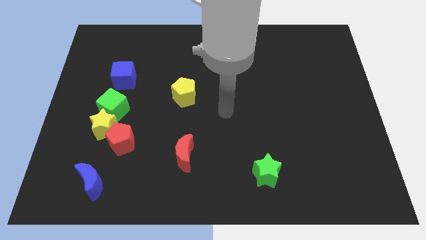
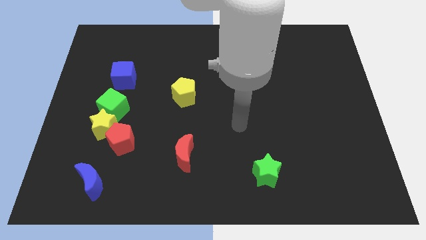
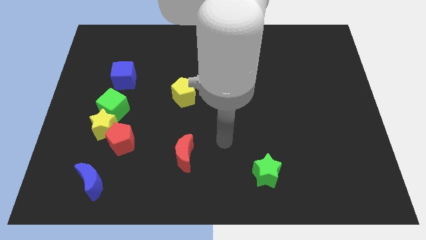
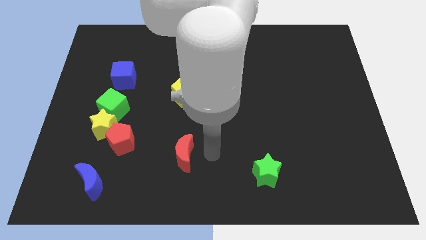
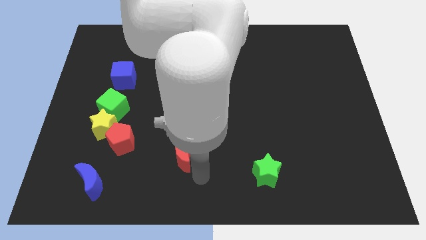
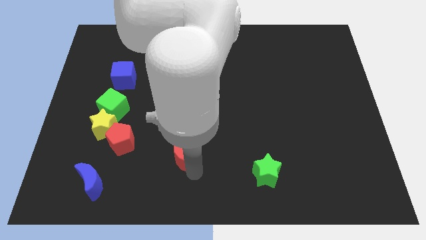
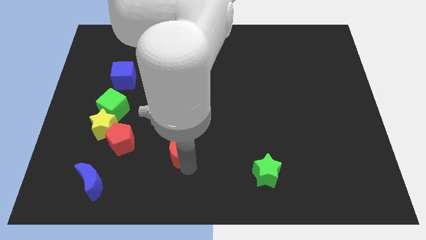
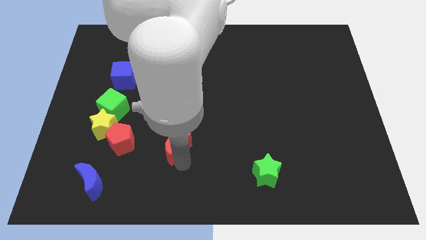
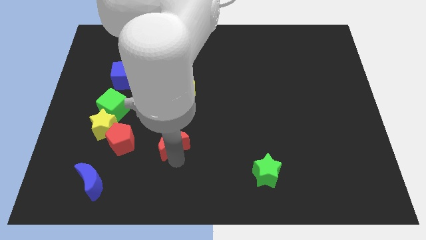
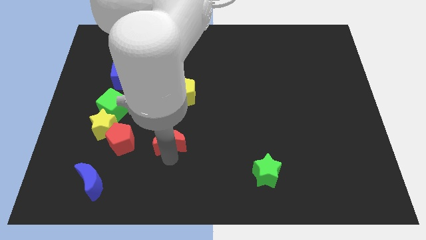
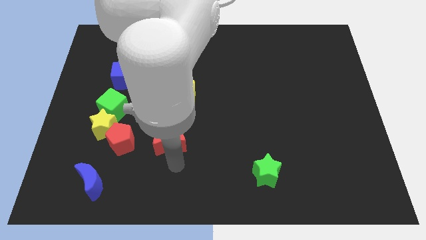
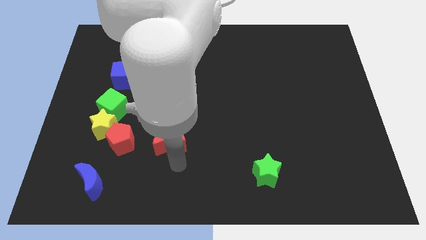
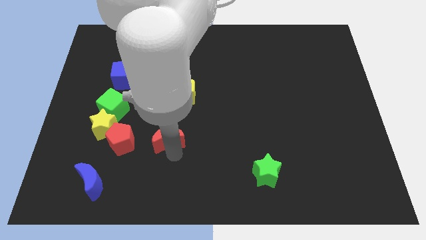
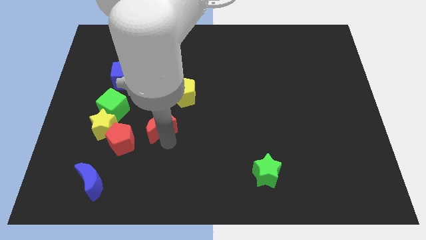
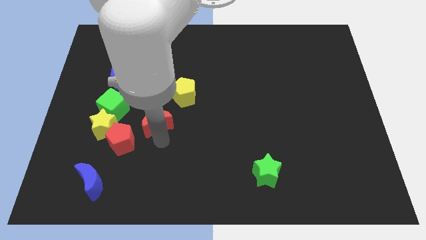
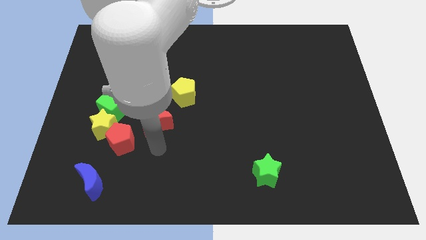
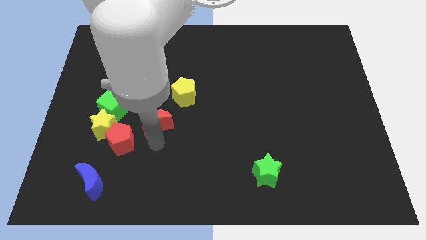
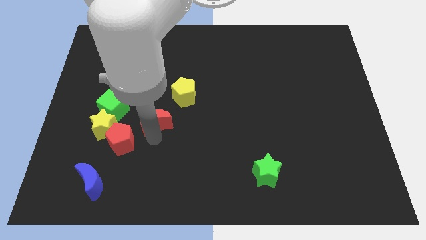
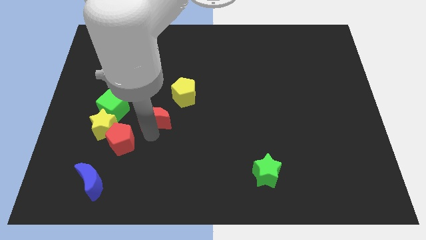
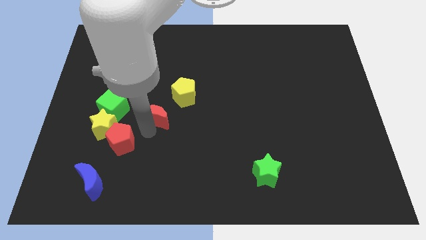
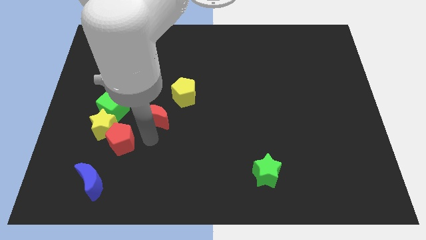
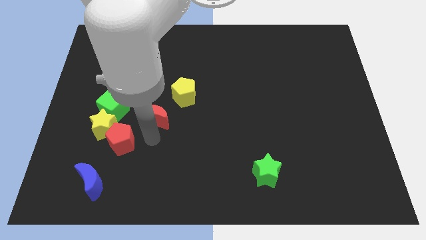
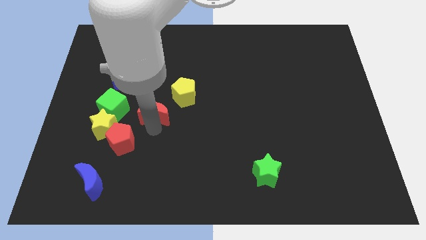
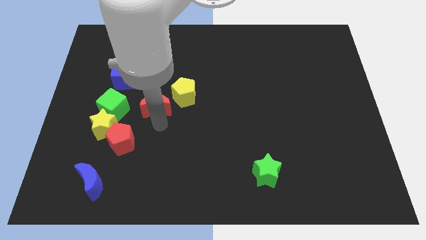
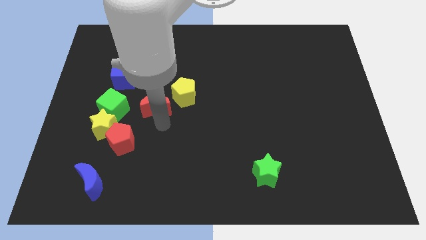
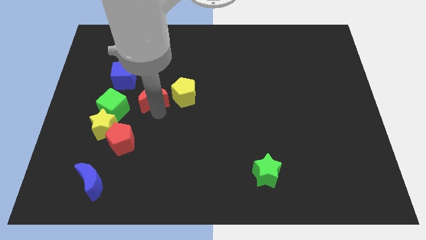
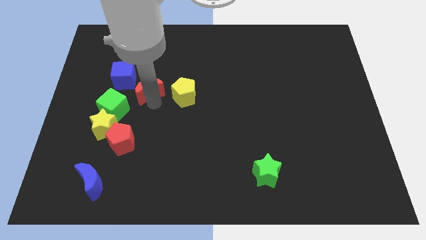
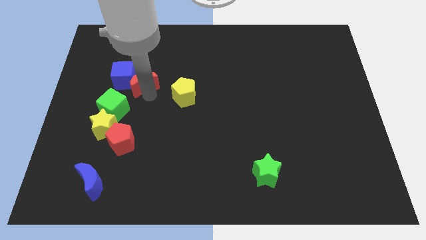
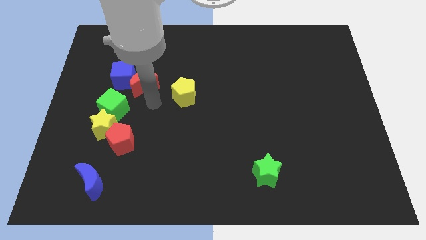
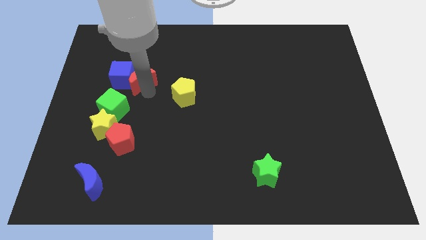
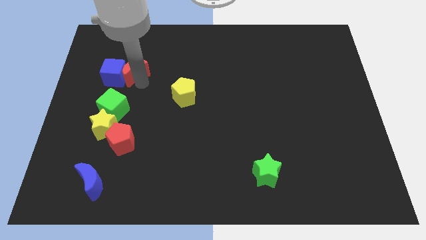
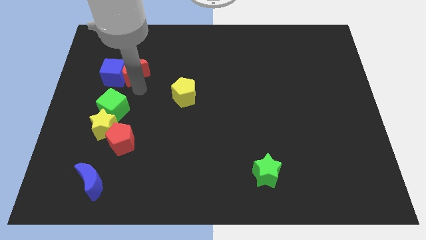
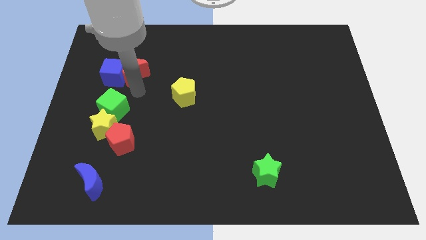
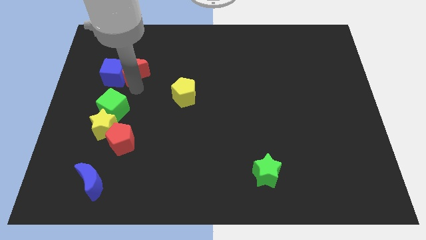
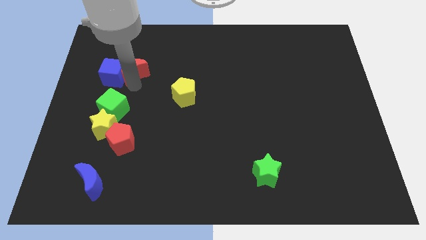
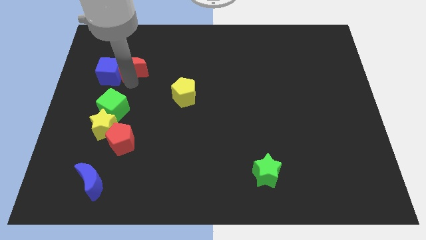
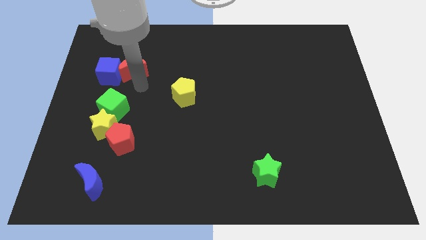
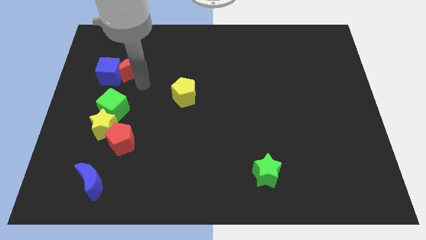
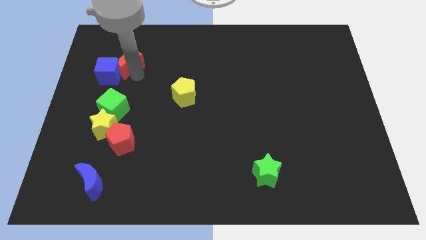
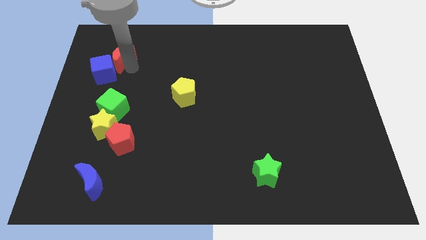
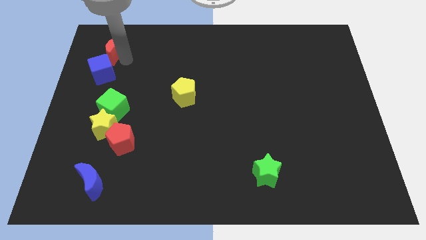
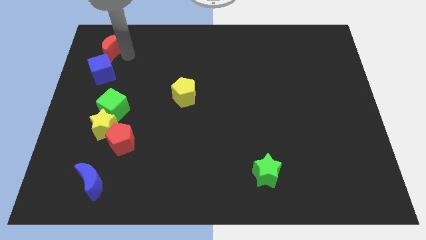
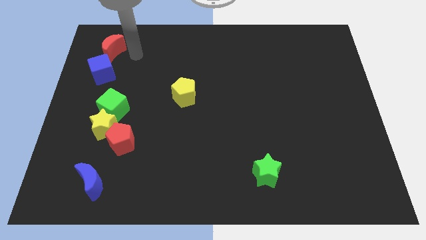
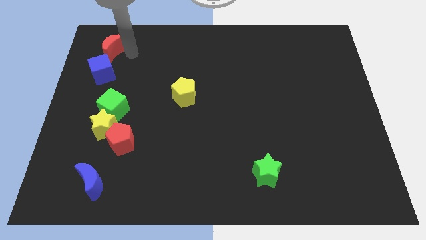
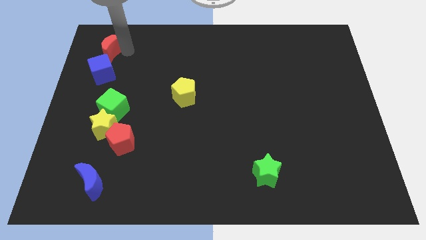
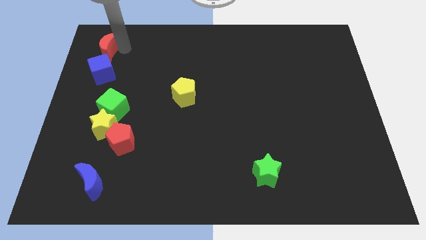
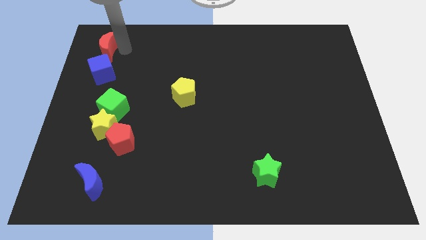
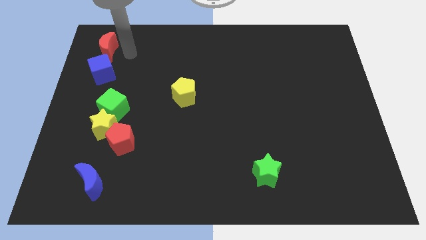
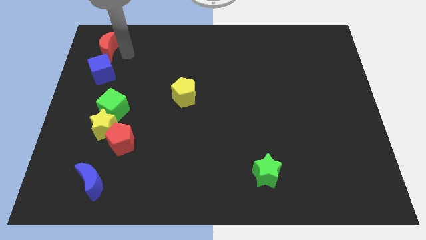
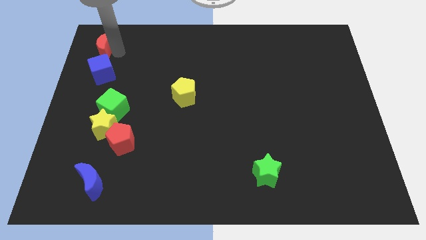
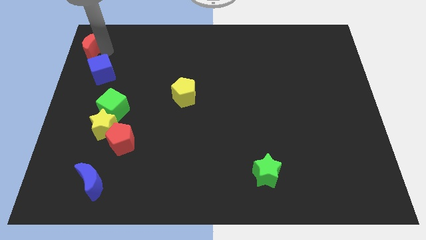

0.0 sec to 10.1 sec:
move the red moon to the upper left corner

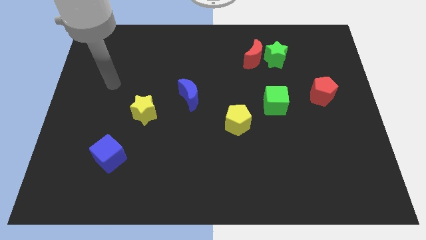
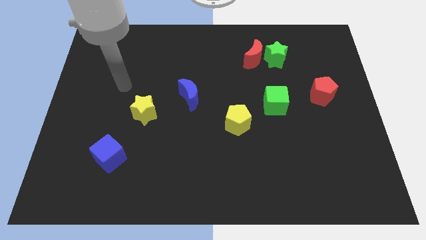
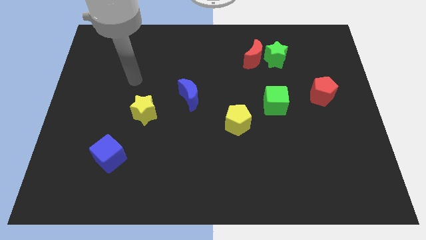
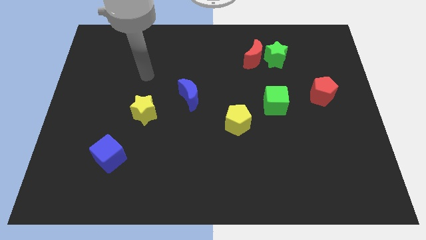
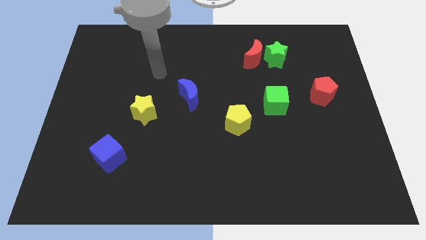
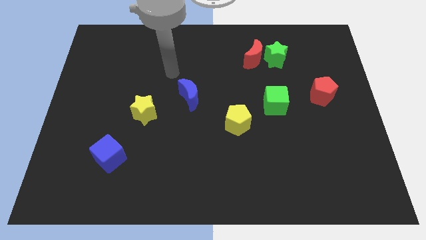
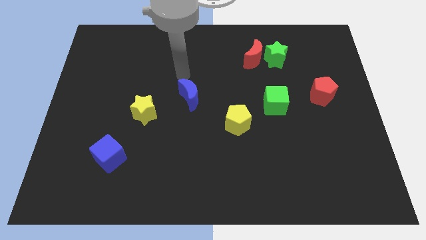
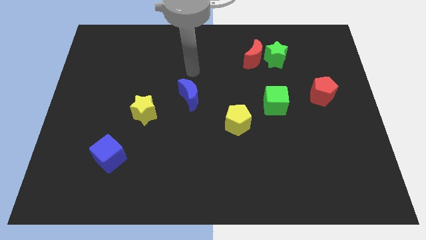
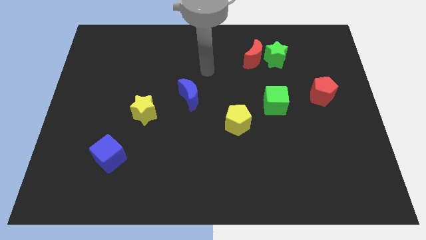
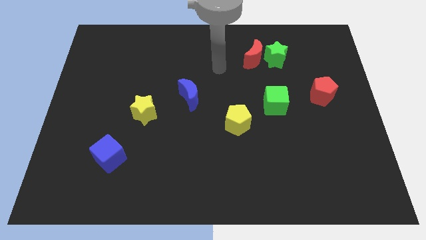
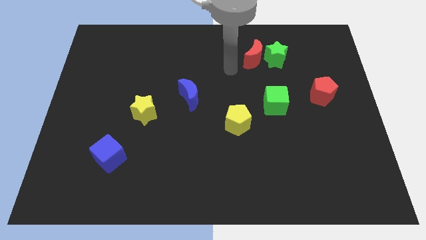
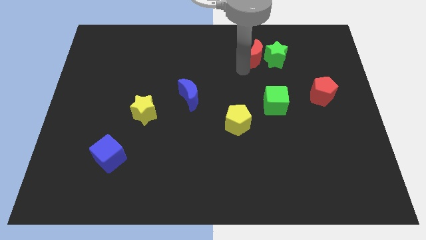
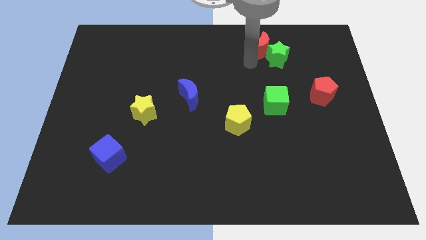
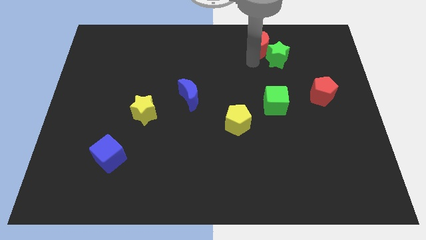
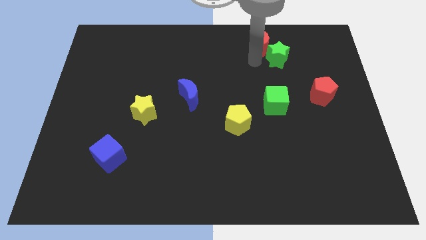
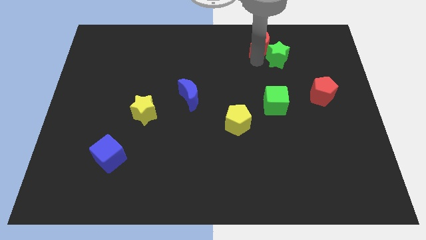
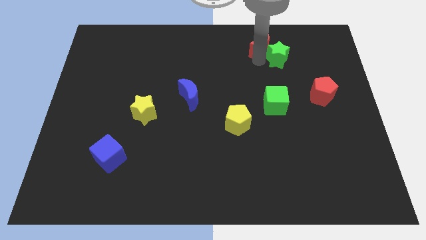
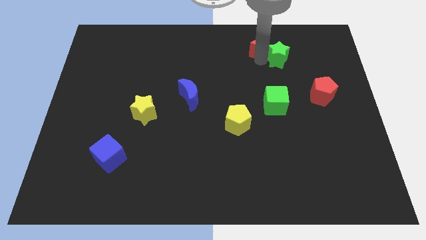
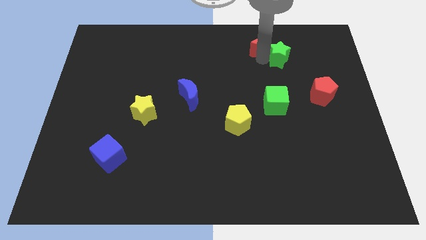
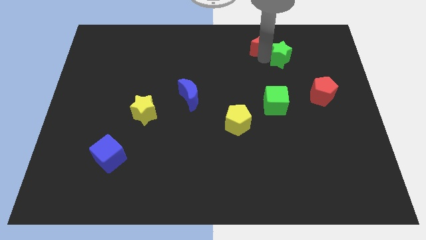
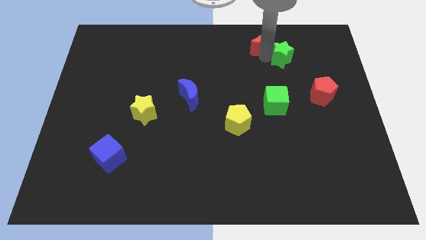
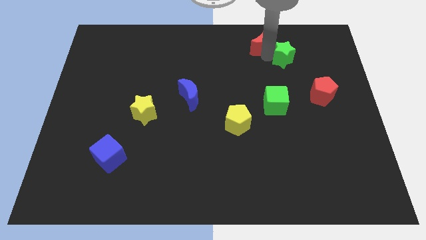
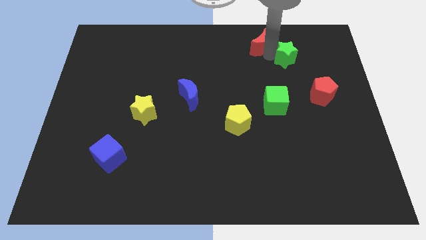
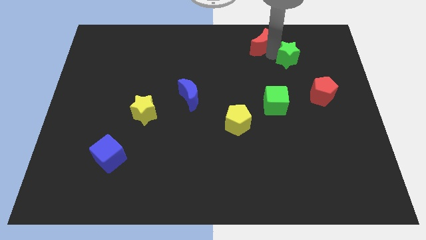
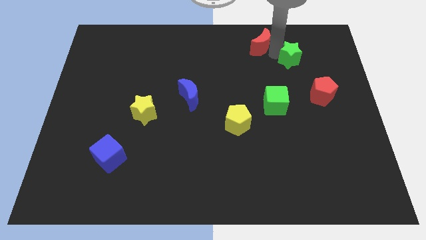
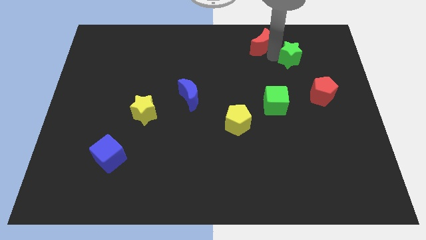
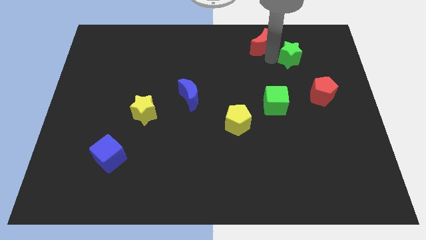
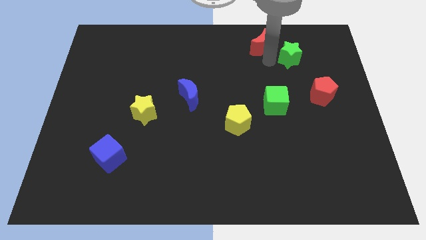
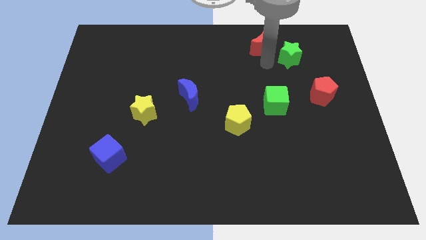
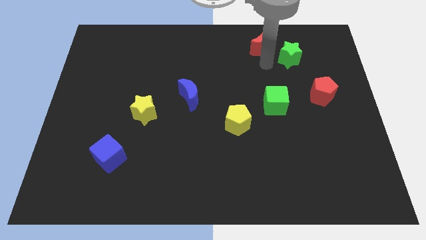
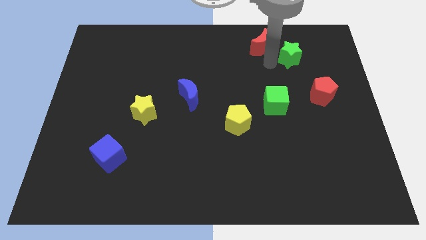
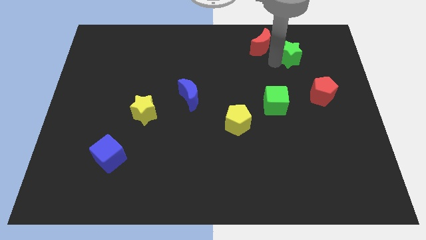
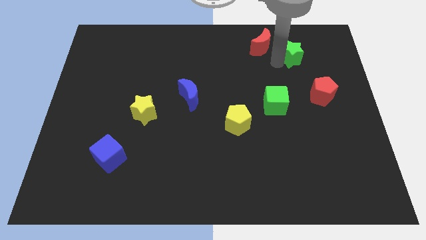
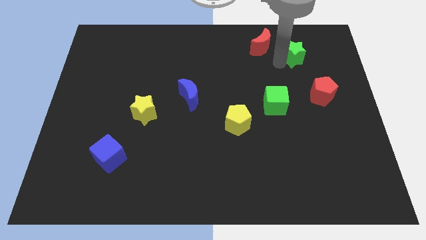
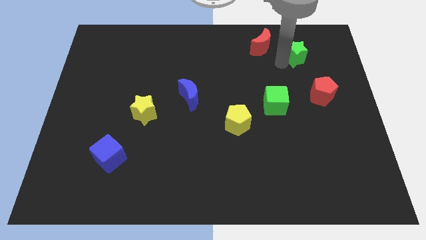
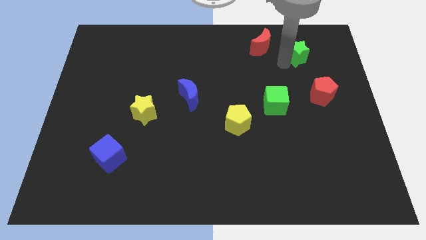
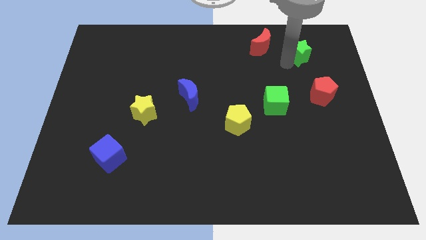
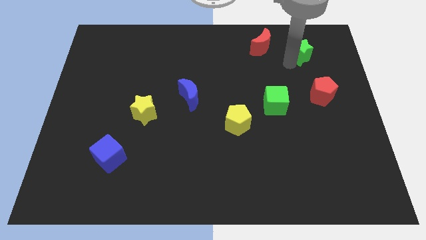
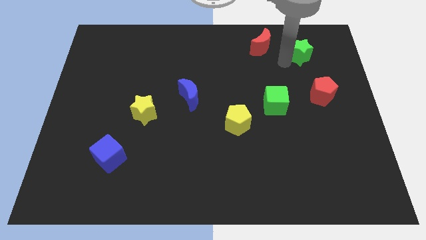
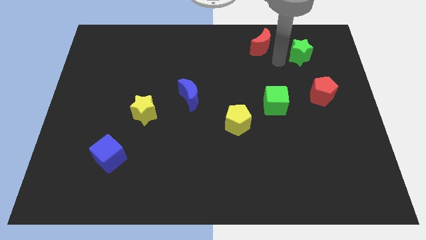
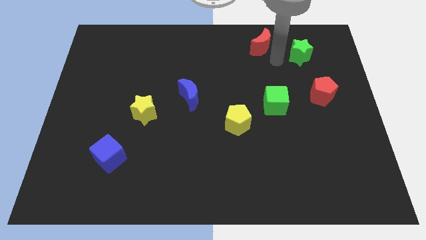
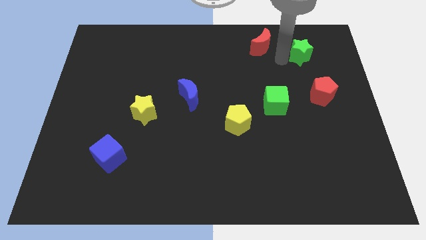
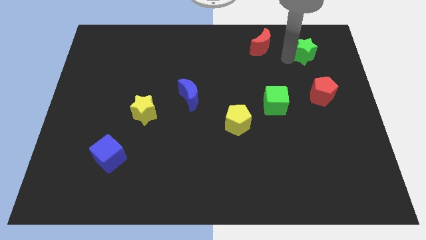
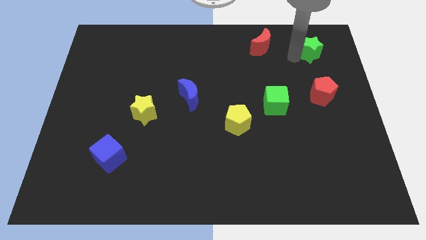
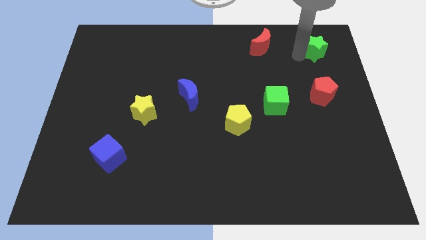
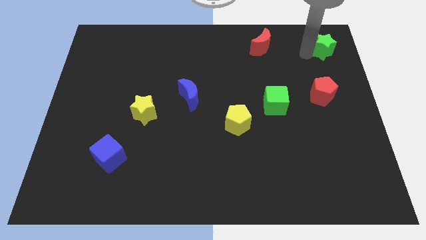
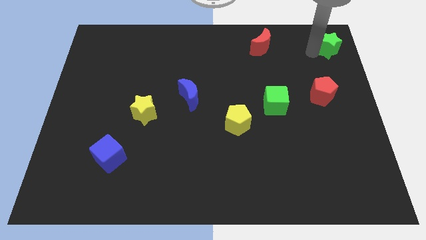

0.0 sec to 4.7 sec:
slide the green star to the top right corner
